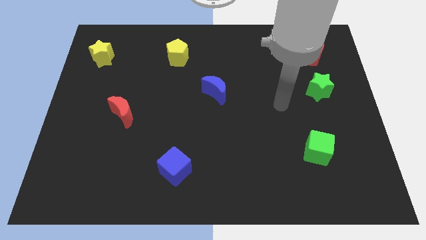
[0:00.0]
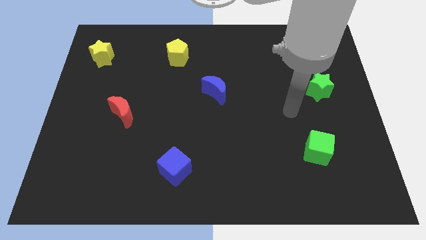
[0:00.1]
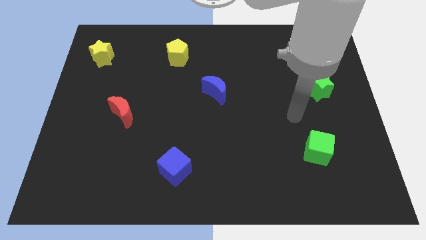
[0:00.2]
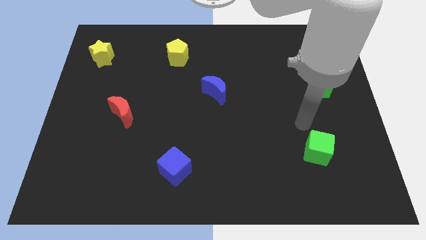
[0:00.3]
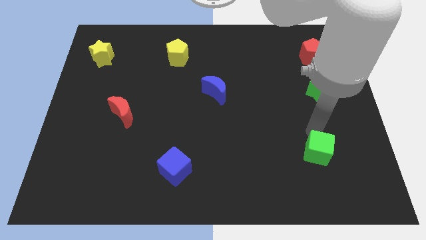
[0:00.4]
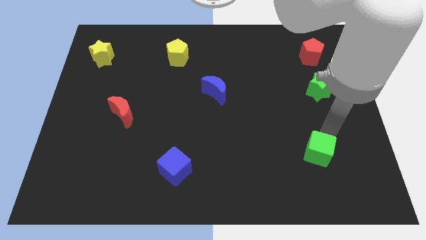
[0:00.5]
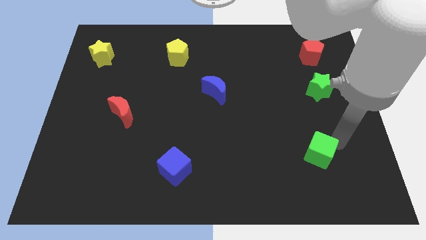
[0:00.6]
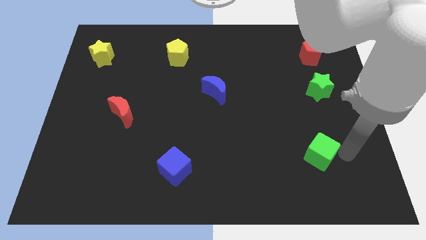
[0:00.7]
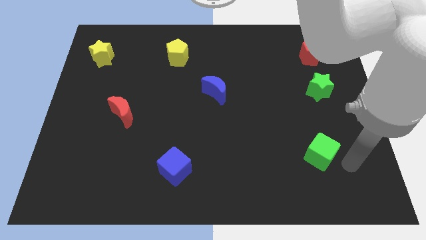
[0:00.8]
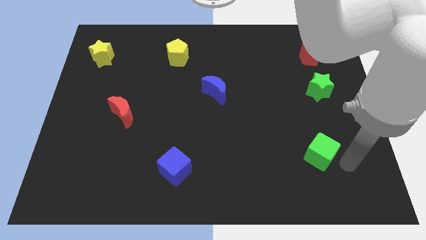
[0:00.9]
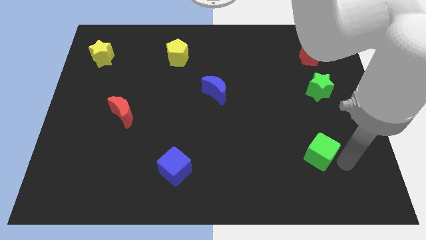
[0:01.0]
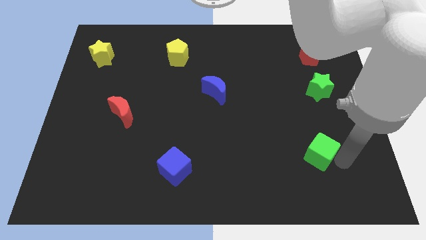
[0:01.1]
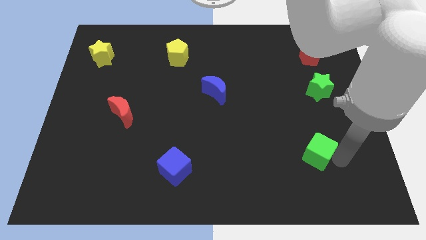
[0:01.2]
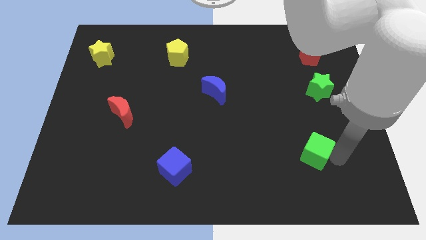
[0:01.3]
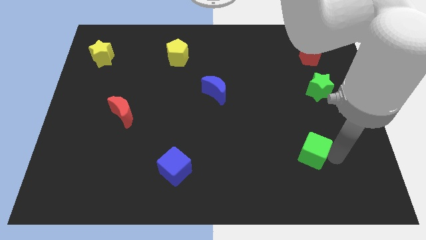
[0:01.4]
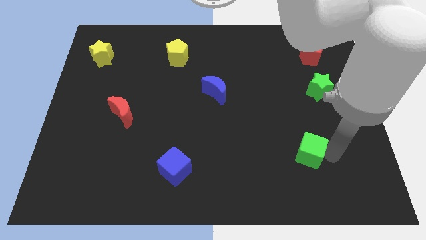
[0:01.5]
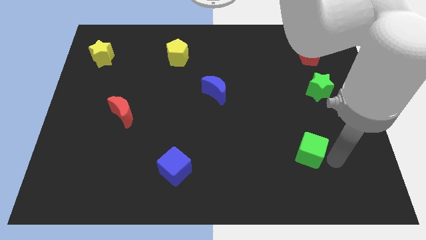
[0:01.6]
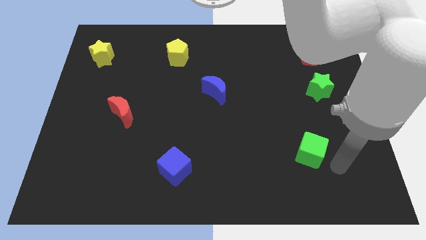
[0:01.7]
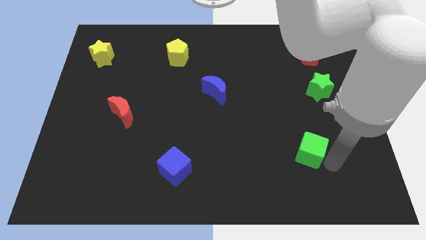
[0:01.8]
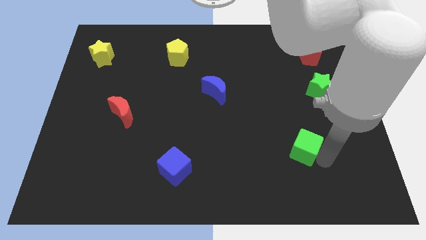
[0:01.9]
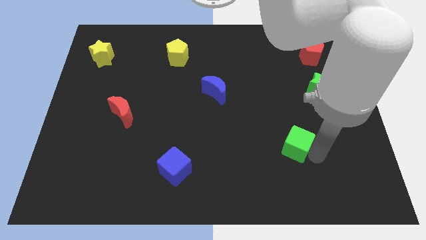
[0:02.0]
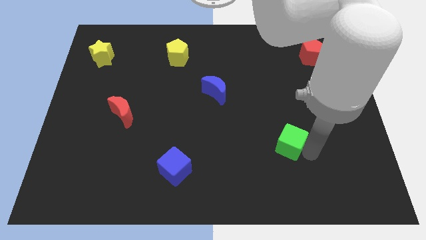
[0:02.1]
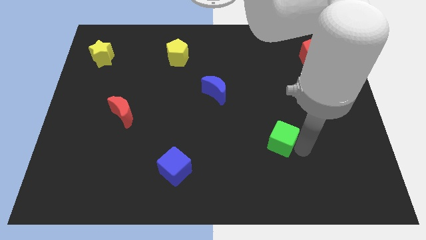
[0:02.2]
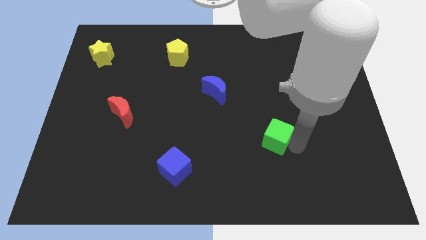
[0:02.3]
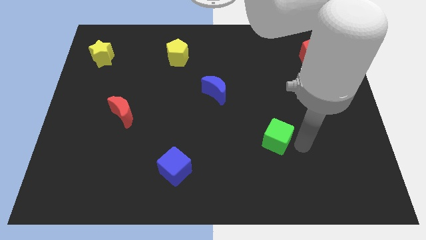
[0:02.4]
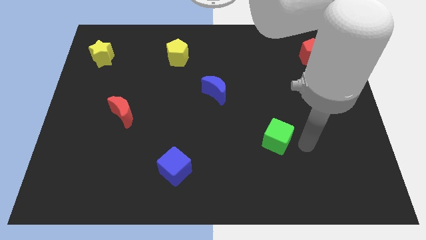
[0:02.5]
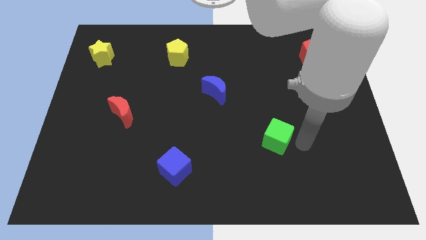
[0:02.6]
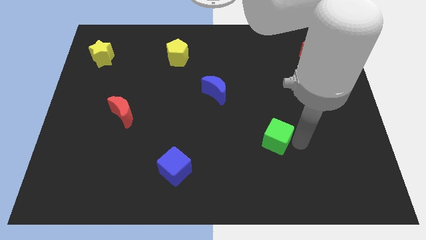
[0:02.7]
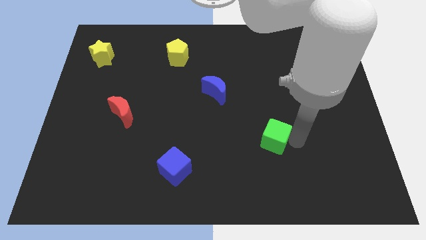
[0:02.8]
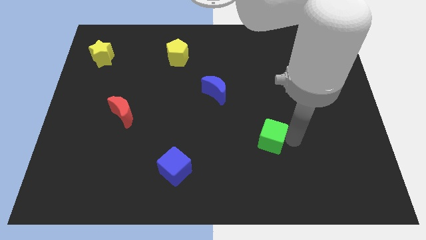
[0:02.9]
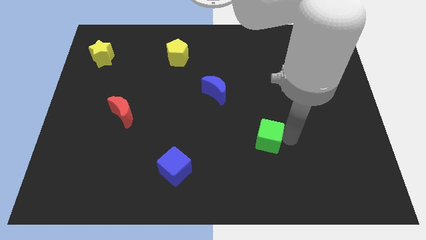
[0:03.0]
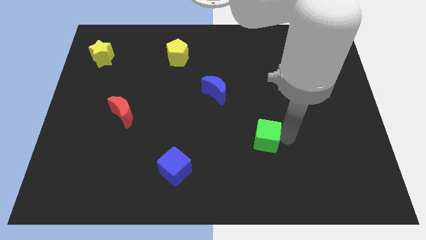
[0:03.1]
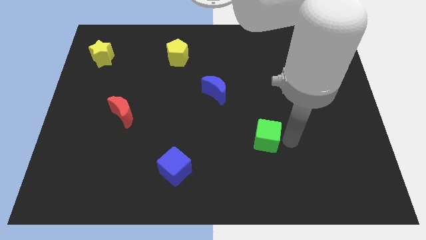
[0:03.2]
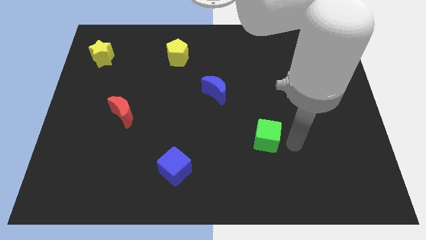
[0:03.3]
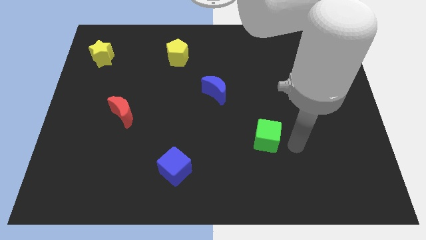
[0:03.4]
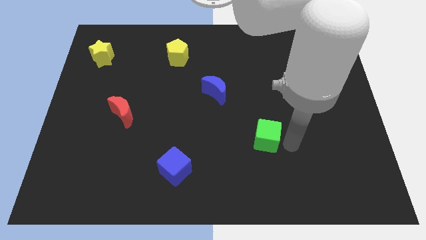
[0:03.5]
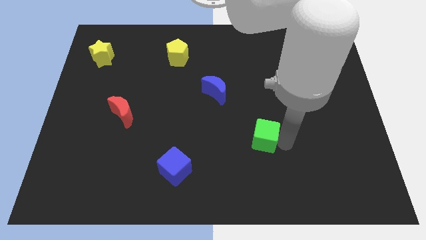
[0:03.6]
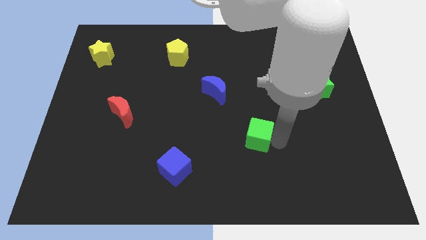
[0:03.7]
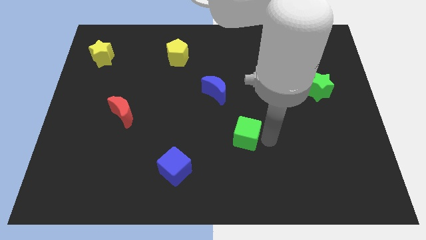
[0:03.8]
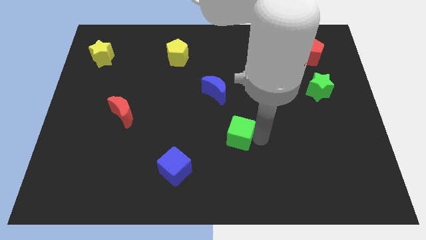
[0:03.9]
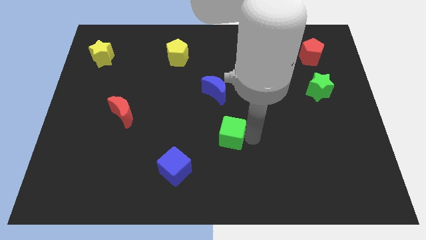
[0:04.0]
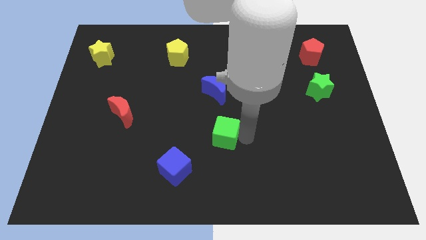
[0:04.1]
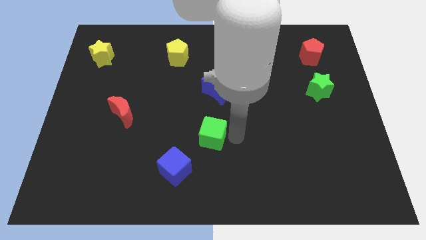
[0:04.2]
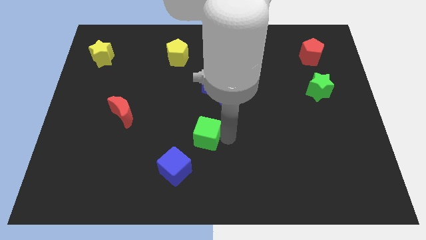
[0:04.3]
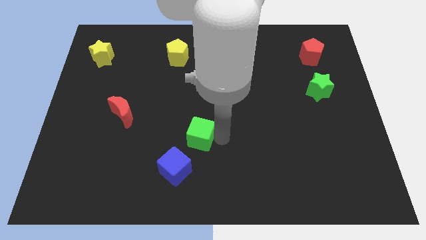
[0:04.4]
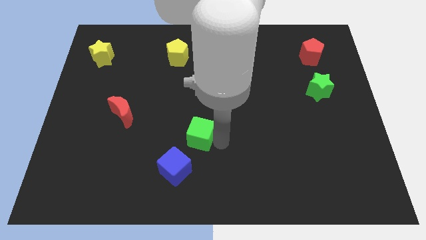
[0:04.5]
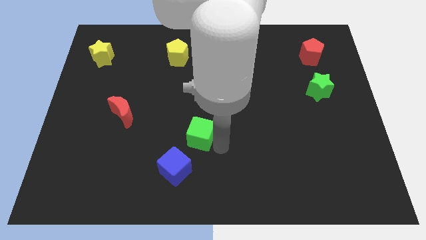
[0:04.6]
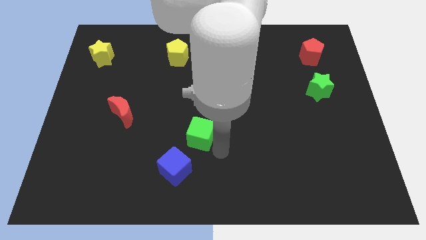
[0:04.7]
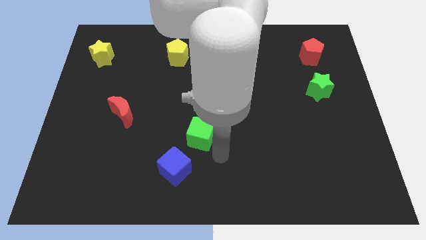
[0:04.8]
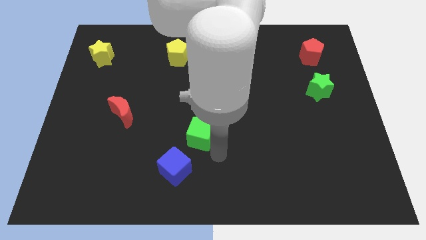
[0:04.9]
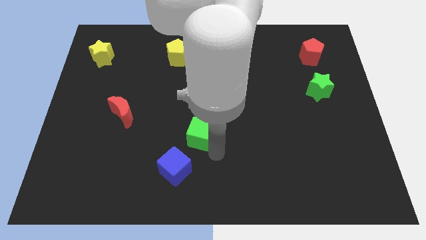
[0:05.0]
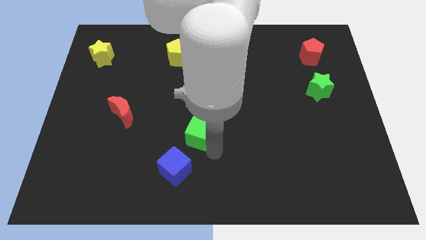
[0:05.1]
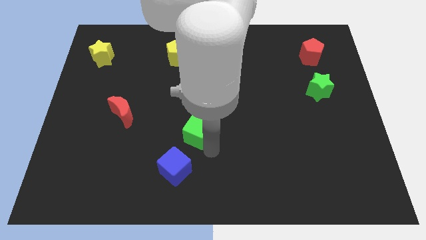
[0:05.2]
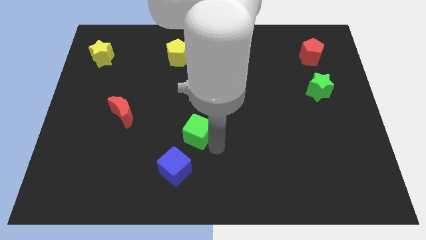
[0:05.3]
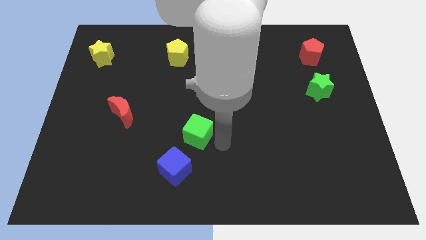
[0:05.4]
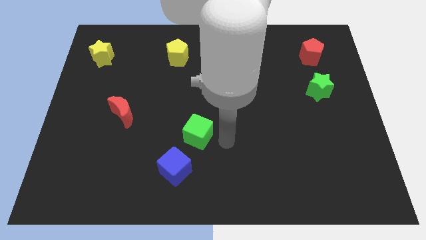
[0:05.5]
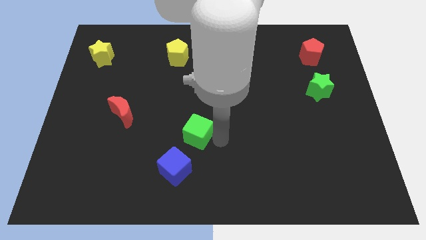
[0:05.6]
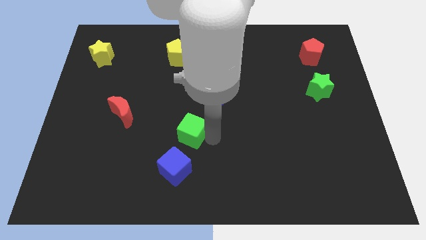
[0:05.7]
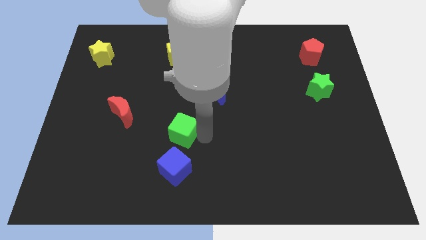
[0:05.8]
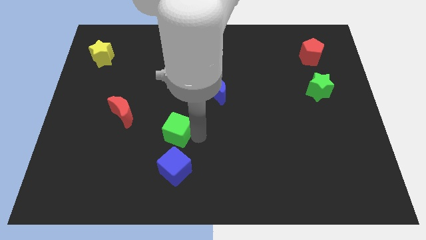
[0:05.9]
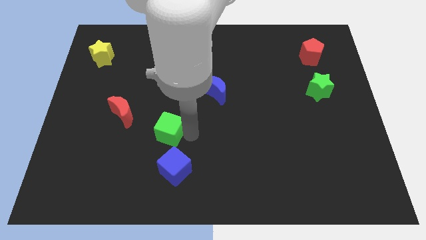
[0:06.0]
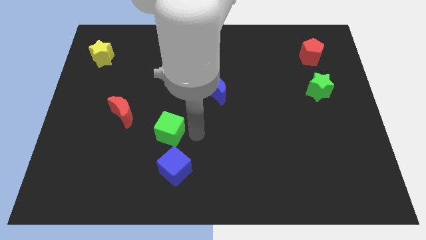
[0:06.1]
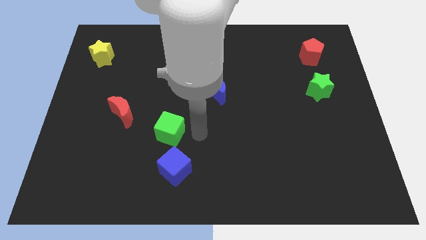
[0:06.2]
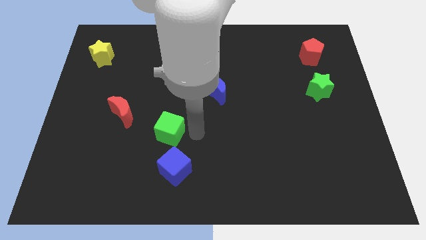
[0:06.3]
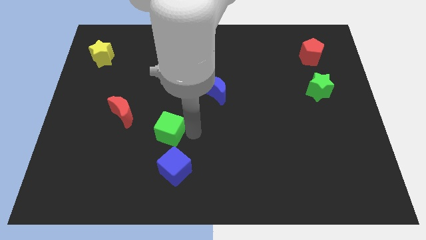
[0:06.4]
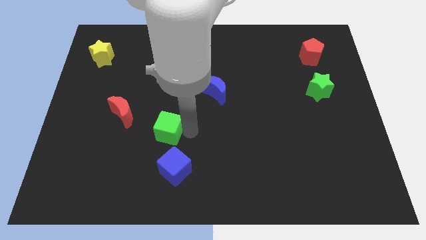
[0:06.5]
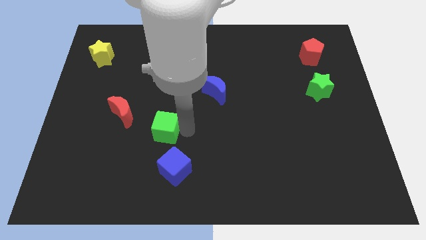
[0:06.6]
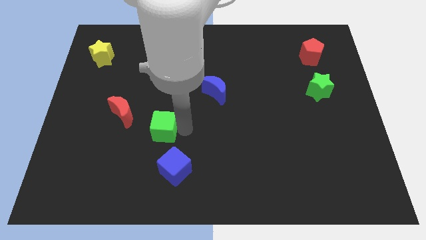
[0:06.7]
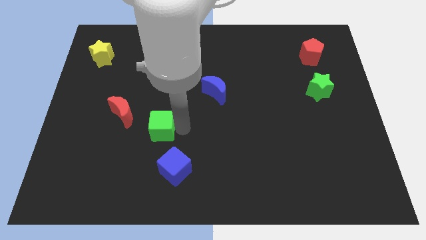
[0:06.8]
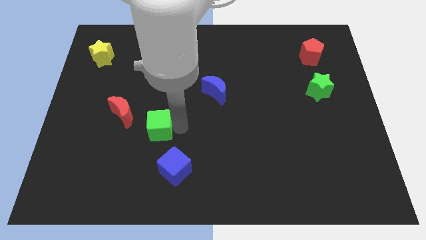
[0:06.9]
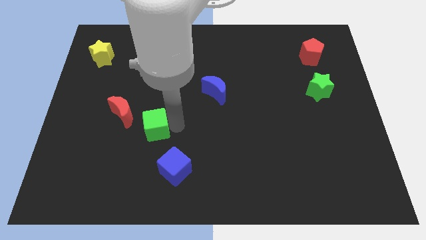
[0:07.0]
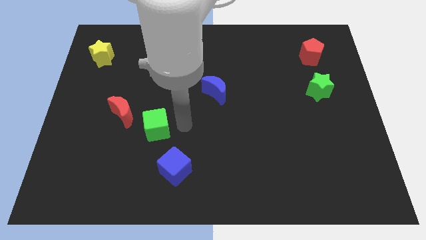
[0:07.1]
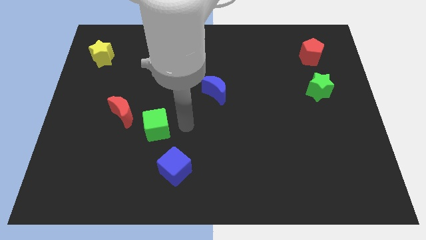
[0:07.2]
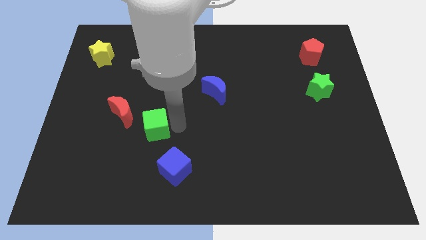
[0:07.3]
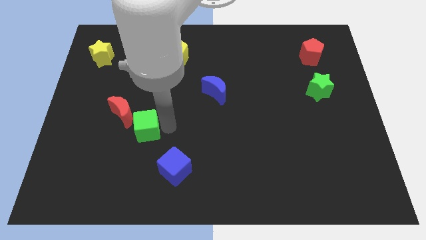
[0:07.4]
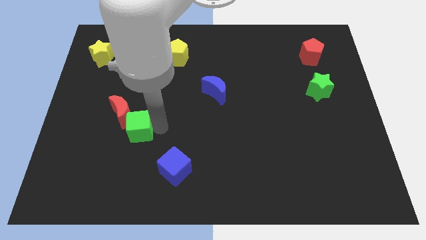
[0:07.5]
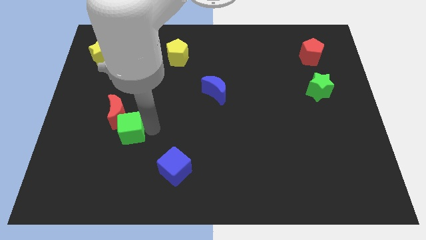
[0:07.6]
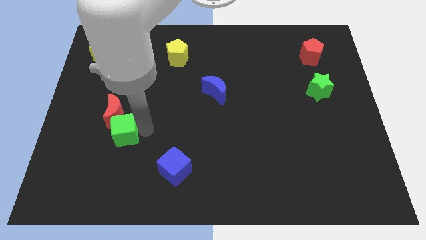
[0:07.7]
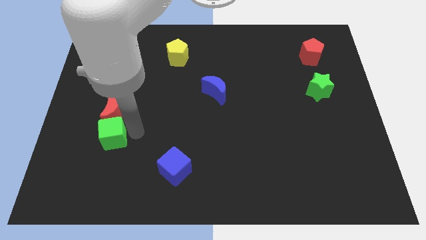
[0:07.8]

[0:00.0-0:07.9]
move the green cube to the bottom left side of the red moon
